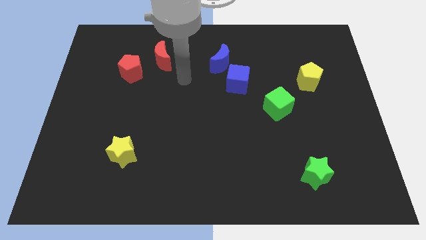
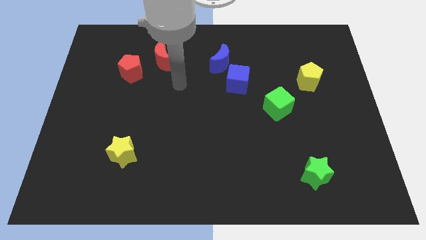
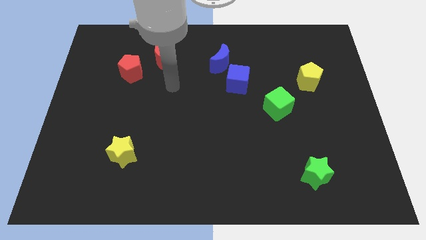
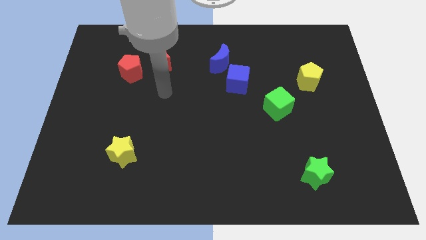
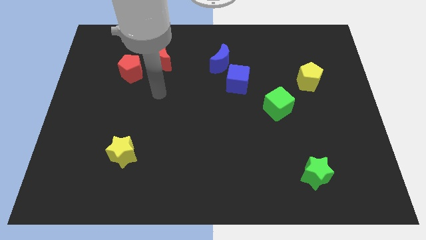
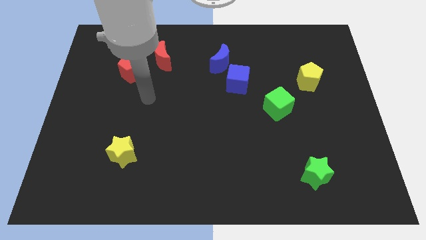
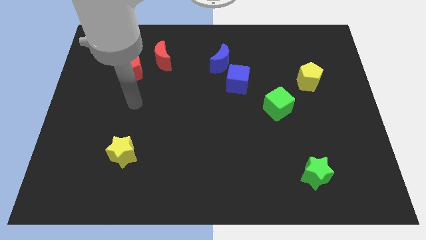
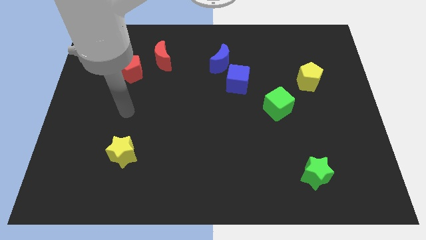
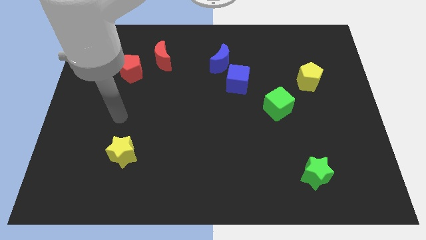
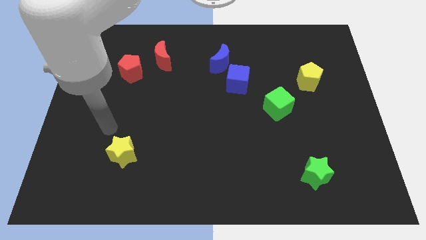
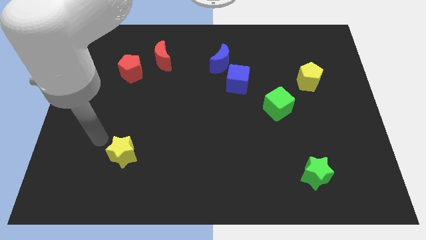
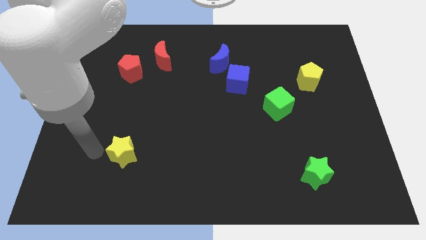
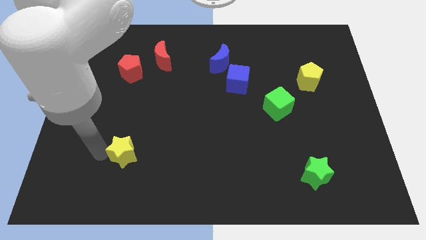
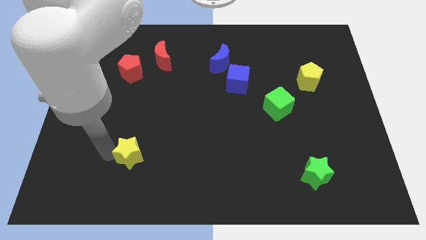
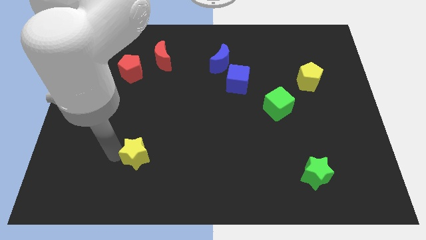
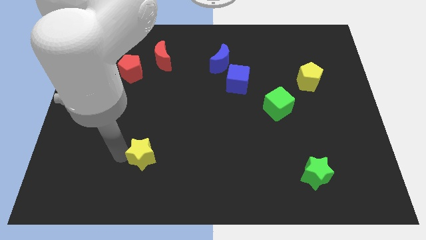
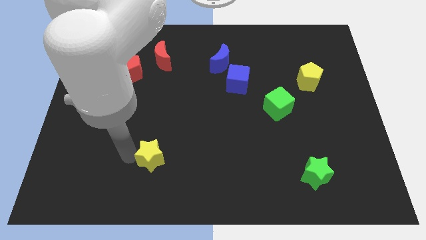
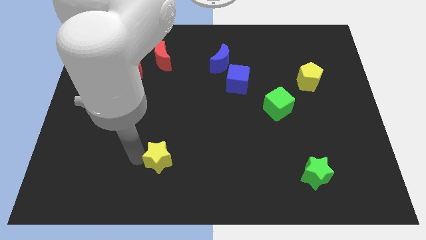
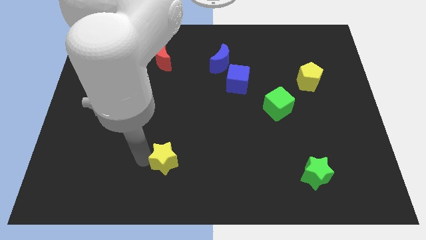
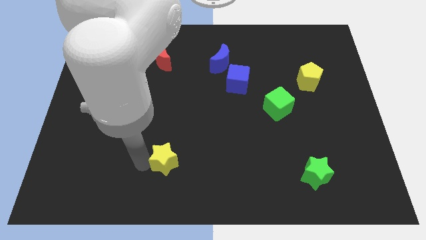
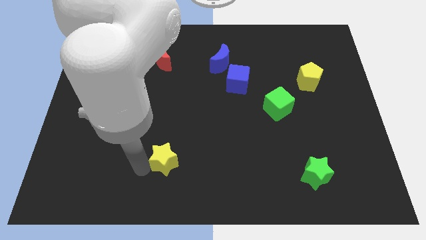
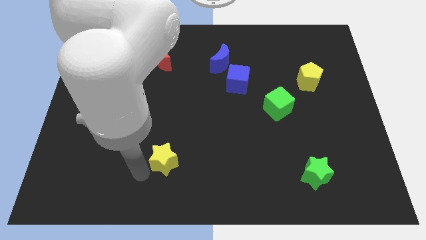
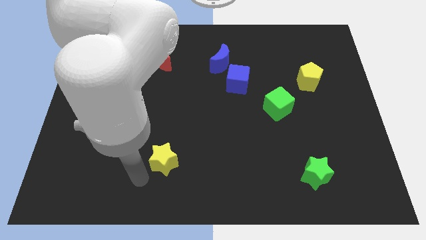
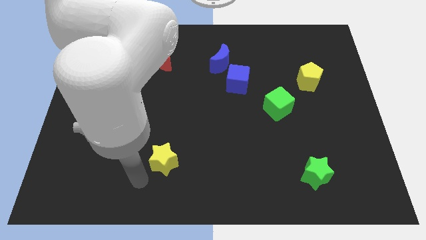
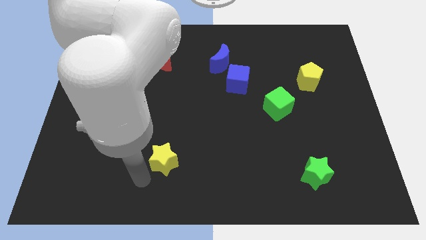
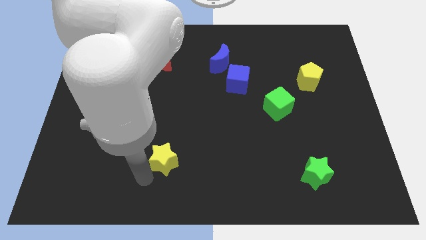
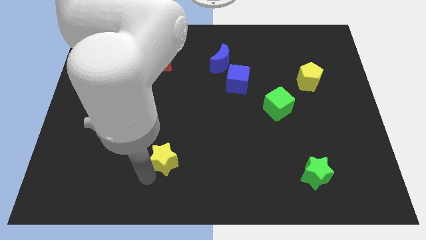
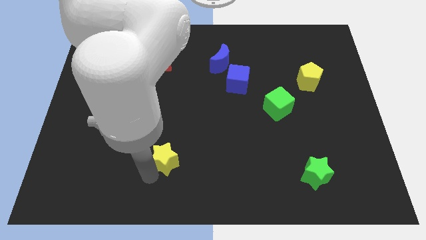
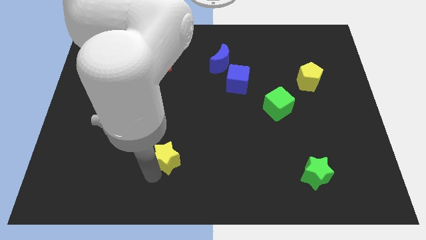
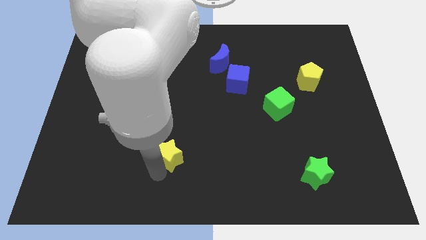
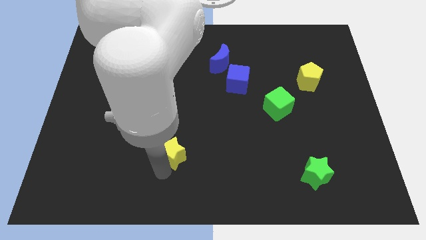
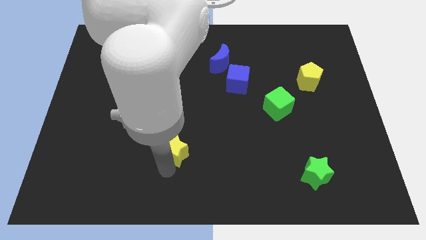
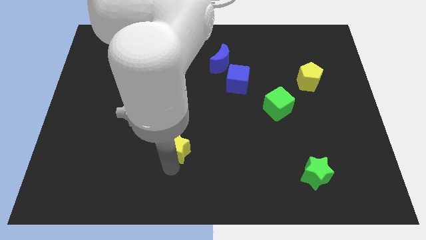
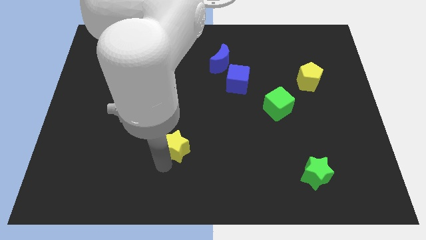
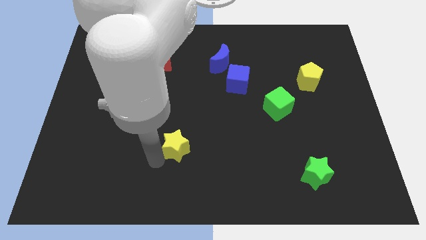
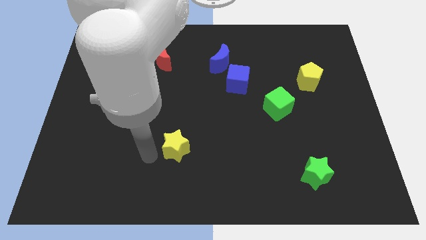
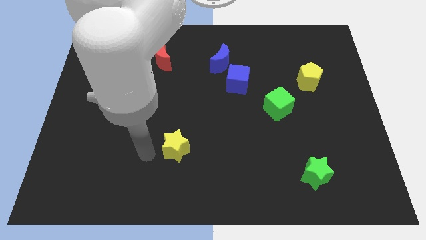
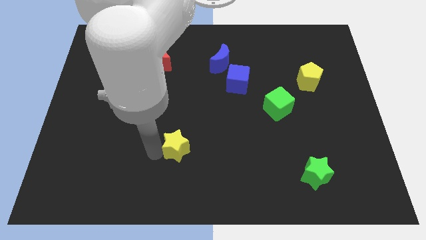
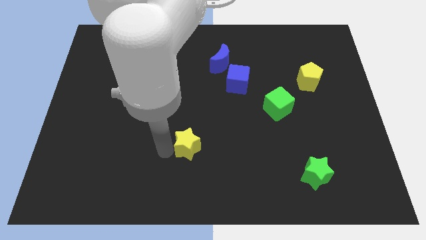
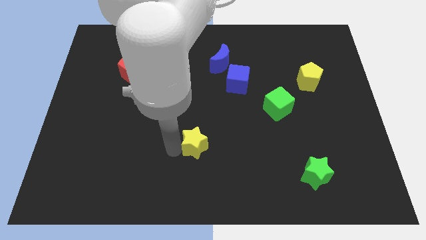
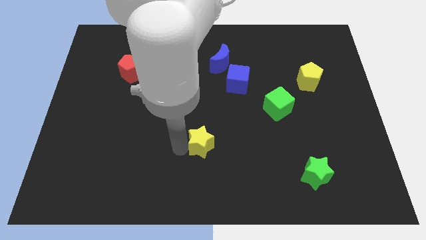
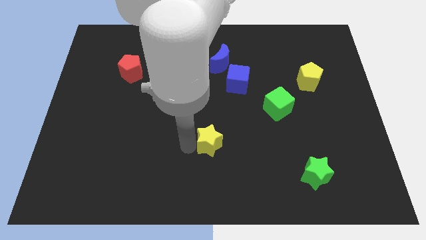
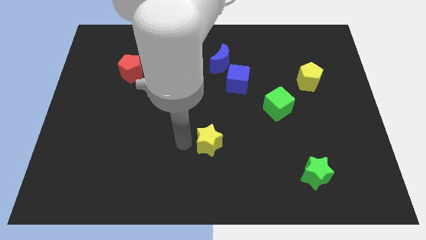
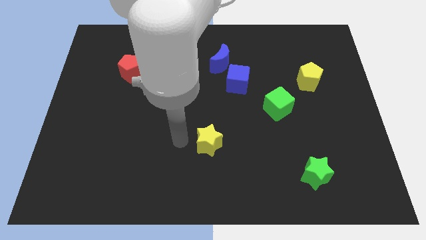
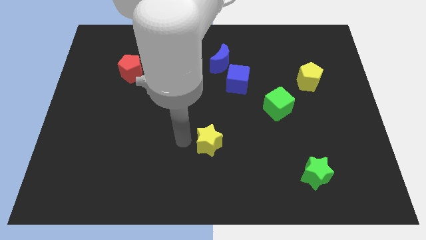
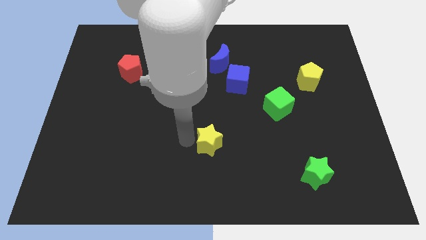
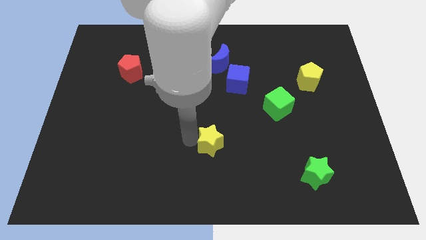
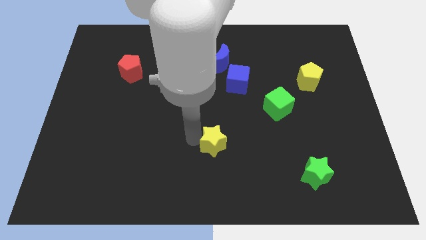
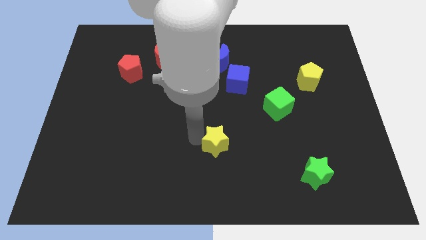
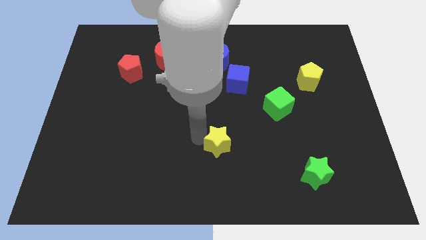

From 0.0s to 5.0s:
push the yellow star right

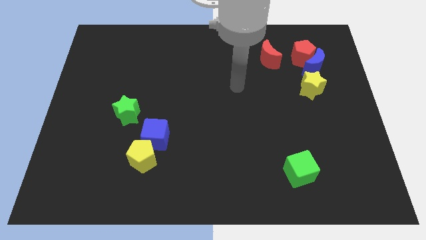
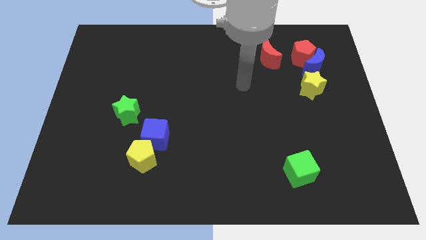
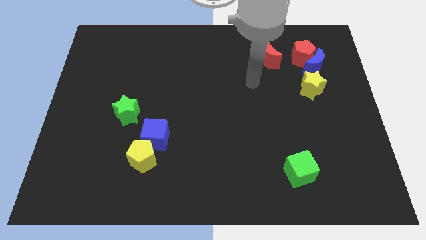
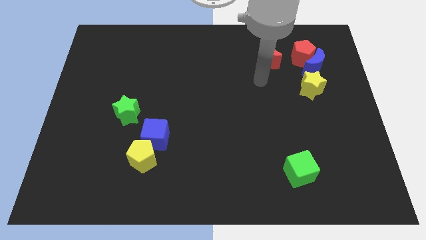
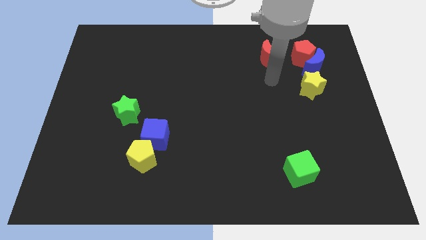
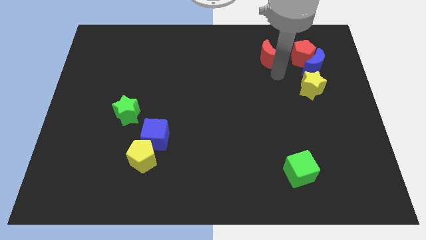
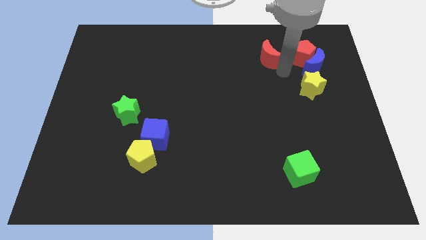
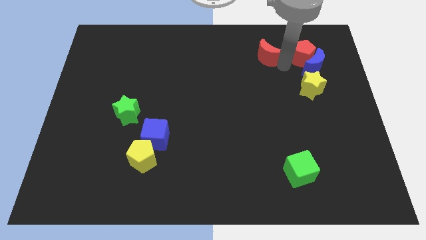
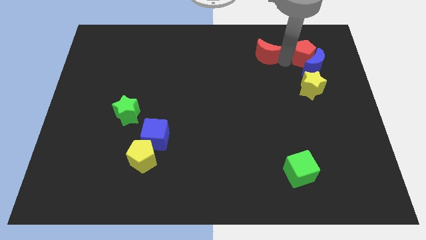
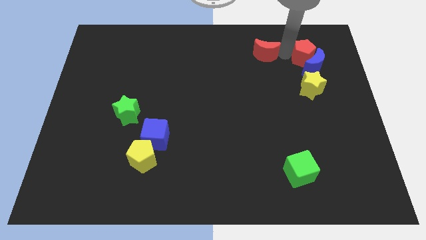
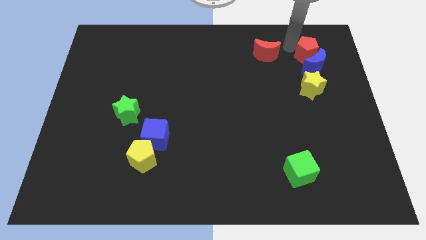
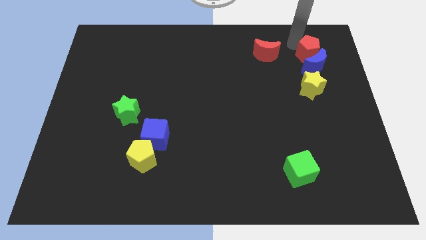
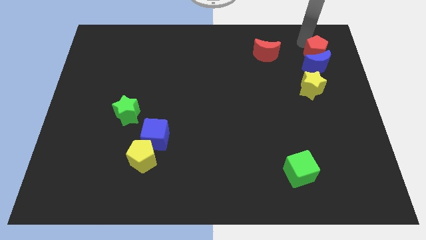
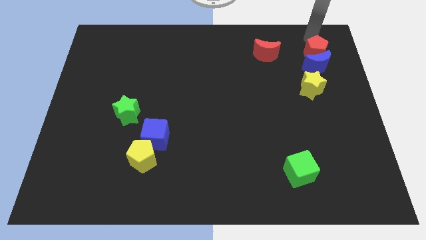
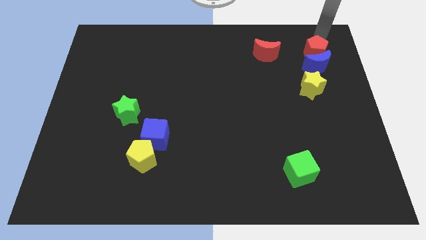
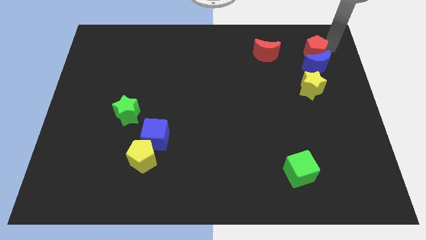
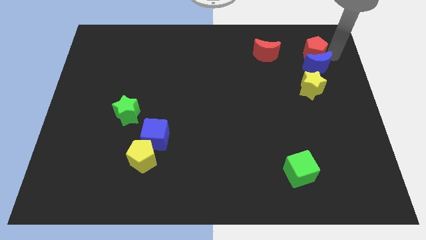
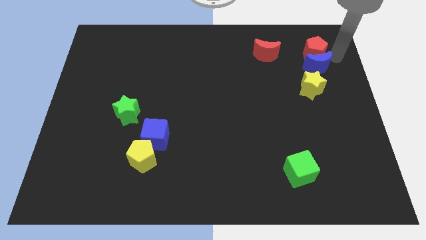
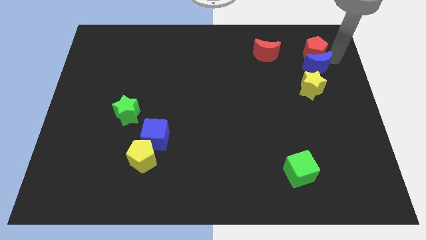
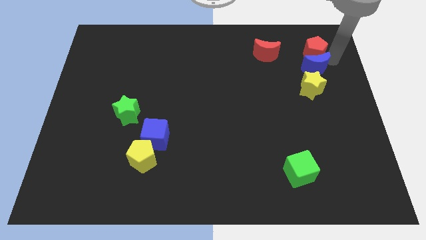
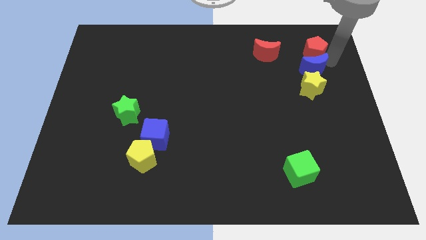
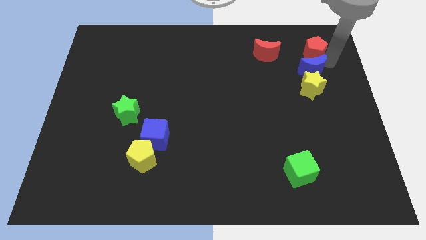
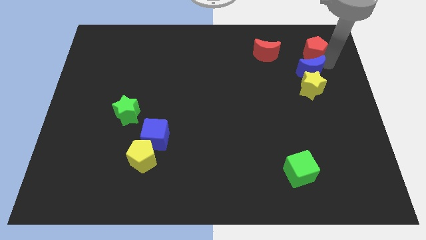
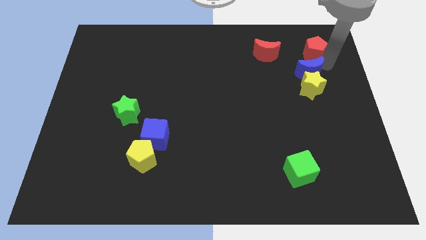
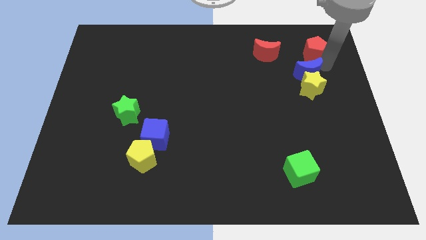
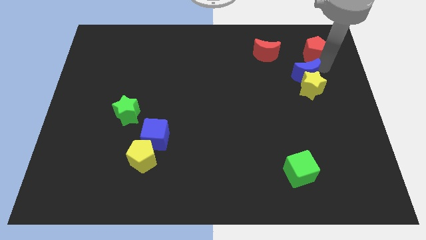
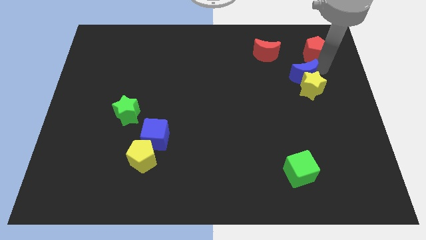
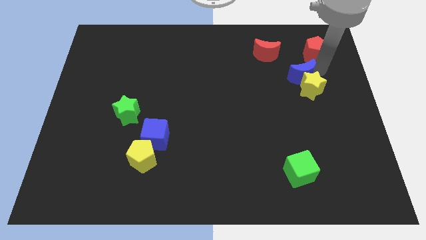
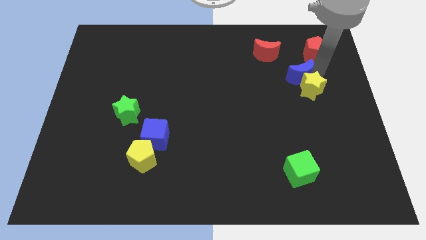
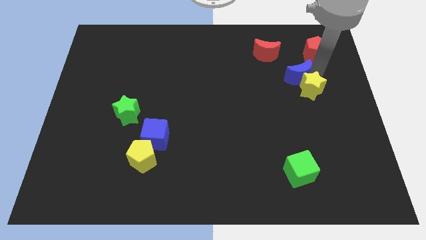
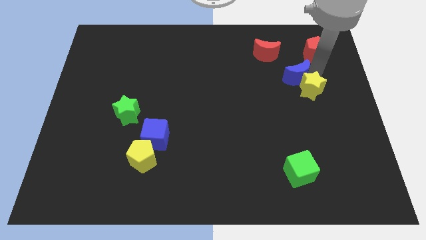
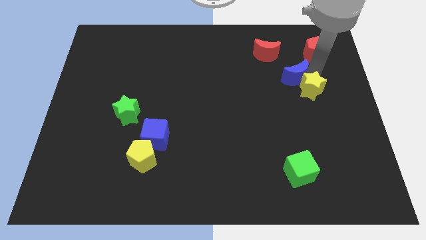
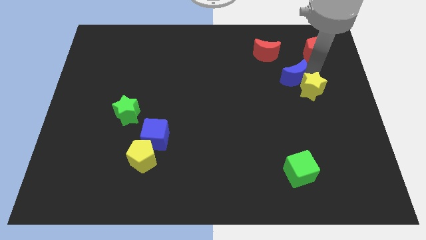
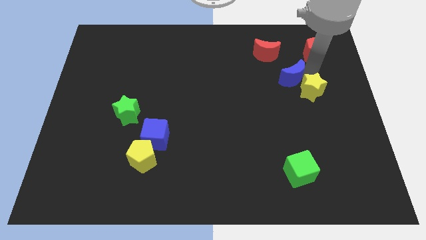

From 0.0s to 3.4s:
slightly push the blue moon downwards and to the left diagonally
